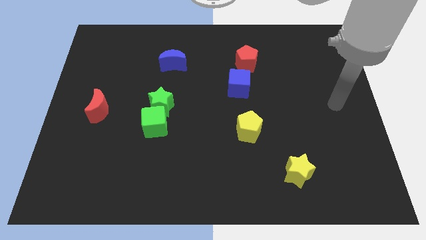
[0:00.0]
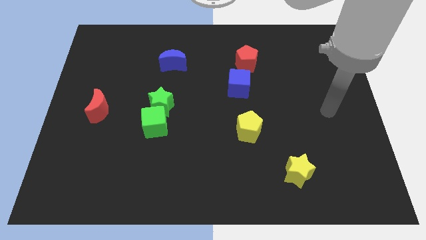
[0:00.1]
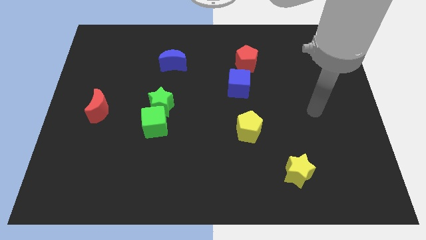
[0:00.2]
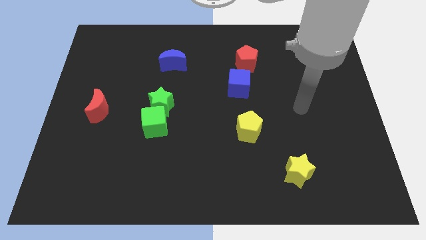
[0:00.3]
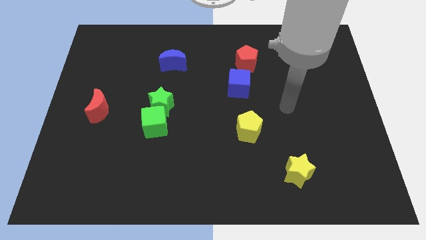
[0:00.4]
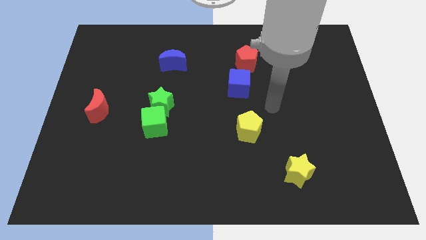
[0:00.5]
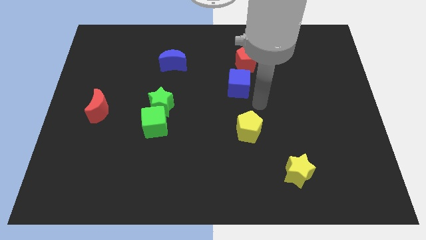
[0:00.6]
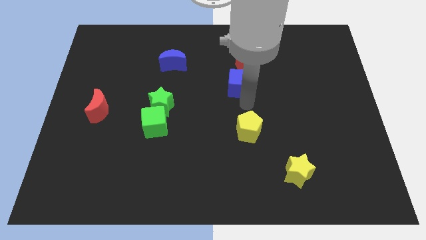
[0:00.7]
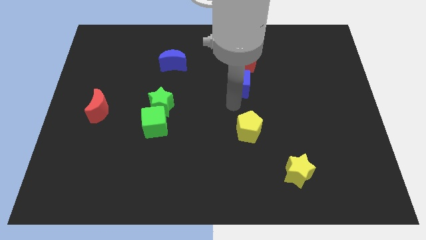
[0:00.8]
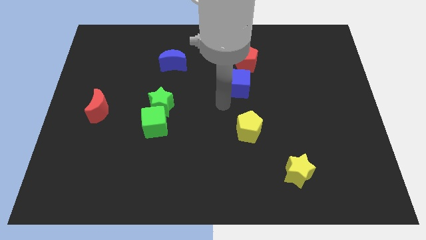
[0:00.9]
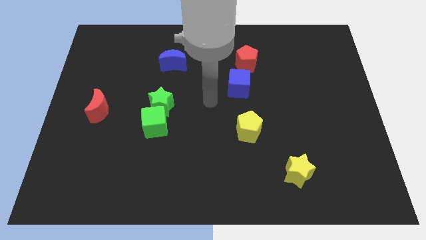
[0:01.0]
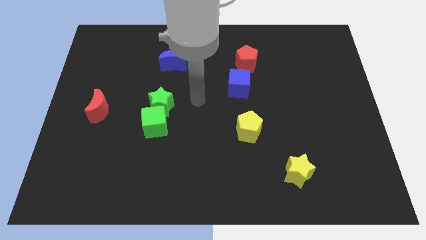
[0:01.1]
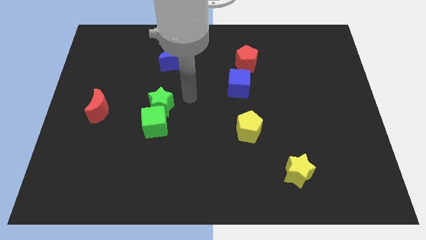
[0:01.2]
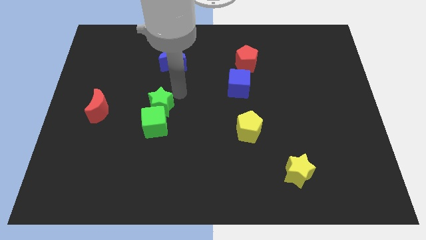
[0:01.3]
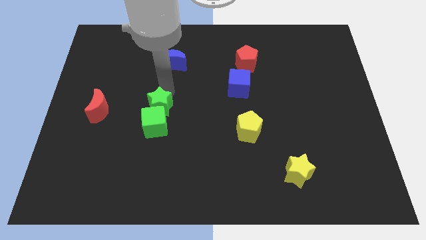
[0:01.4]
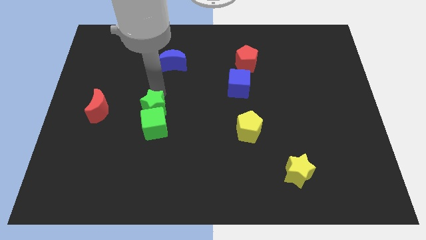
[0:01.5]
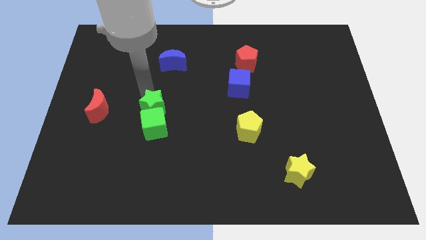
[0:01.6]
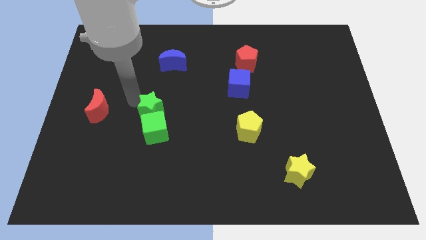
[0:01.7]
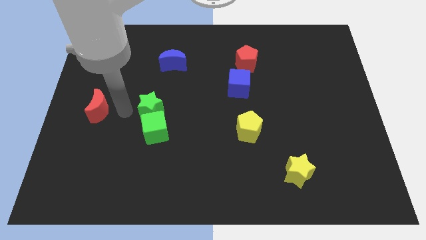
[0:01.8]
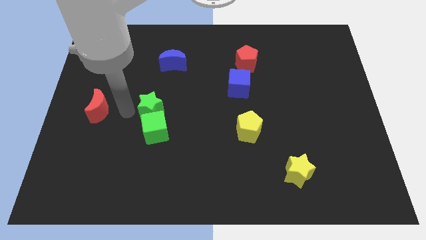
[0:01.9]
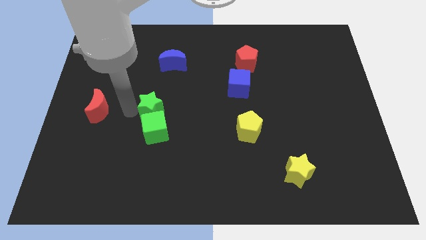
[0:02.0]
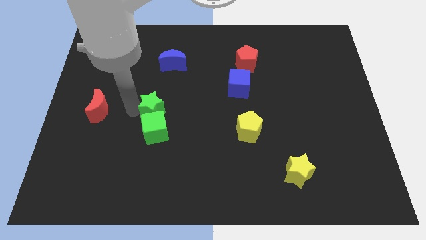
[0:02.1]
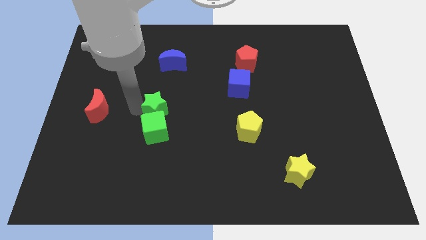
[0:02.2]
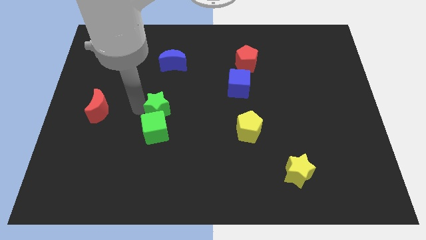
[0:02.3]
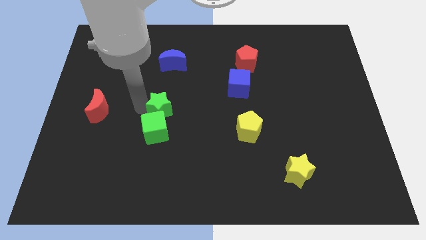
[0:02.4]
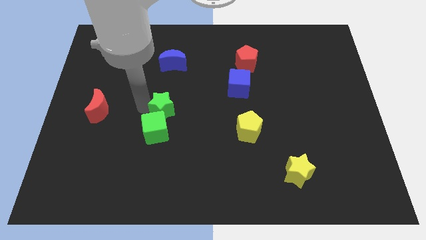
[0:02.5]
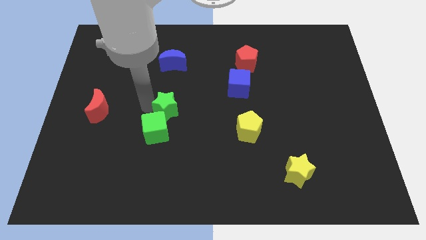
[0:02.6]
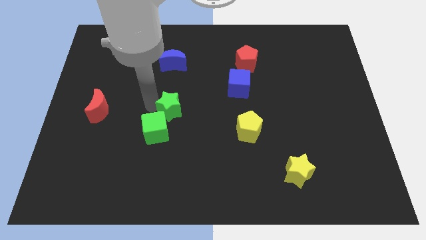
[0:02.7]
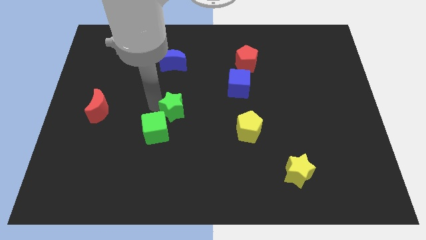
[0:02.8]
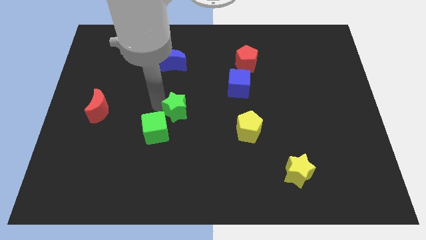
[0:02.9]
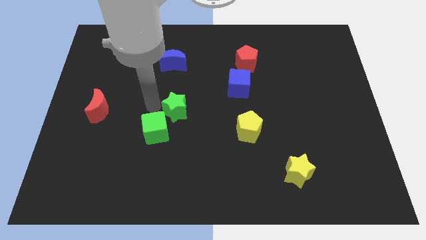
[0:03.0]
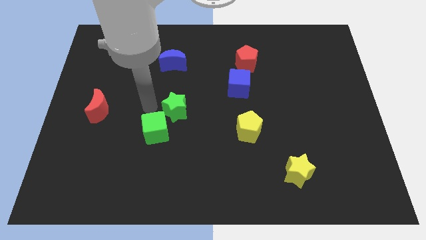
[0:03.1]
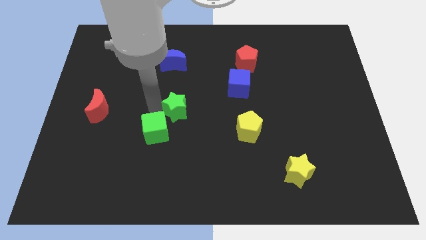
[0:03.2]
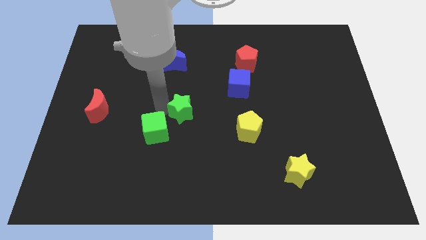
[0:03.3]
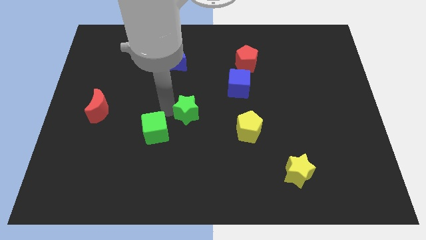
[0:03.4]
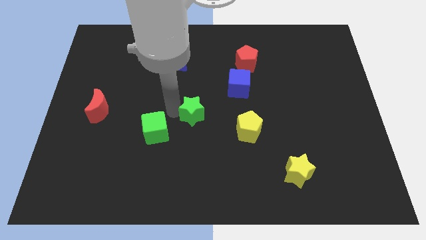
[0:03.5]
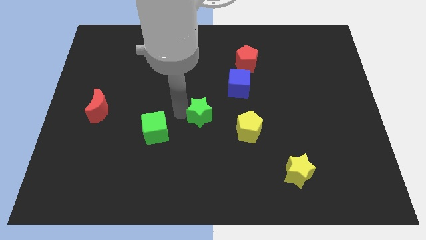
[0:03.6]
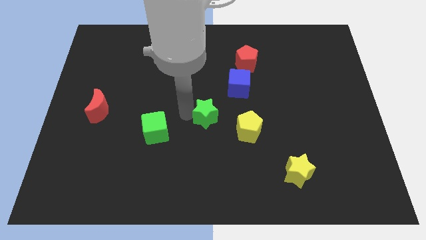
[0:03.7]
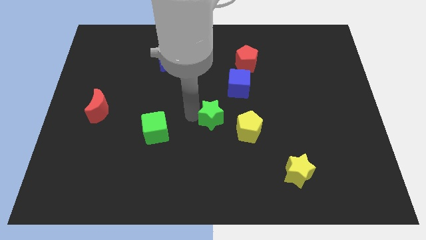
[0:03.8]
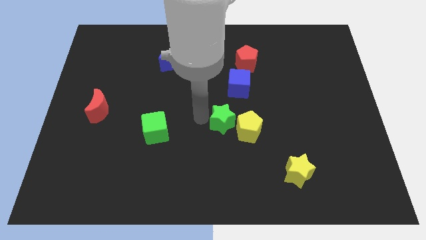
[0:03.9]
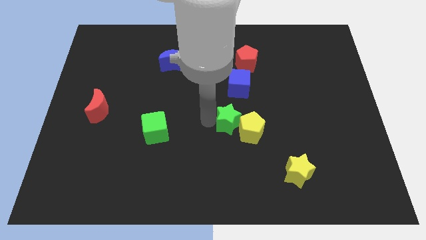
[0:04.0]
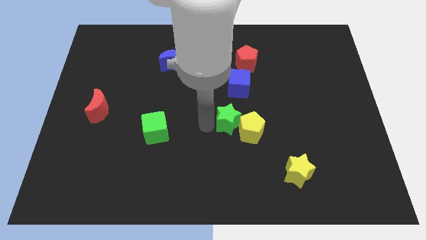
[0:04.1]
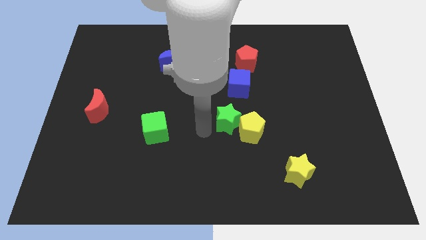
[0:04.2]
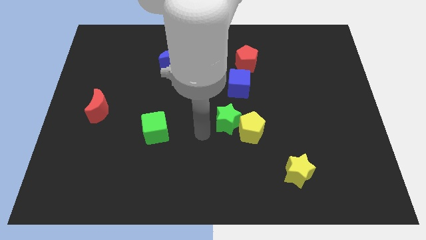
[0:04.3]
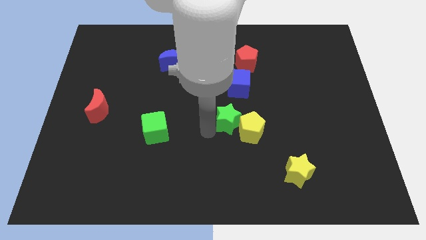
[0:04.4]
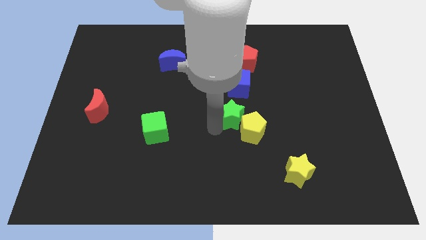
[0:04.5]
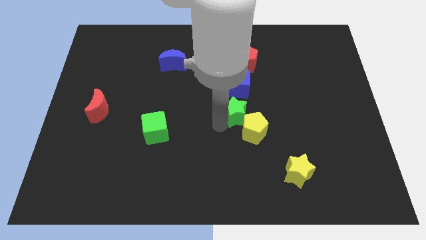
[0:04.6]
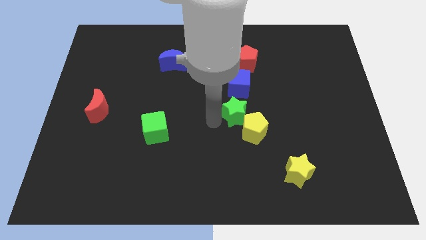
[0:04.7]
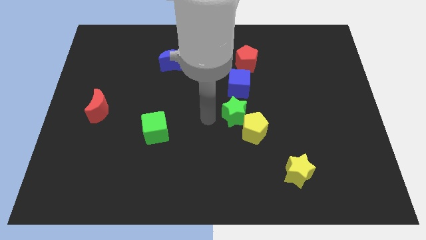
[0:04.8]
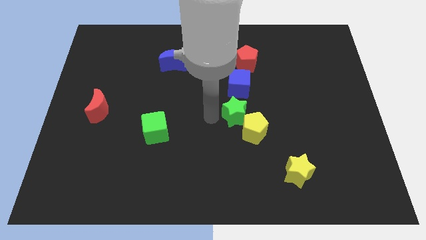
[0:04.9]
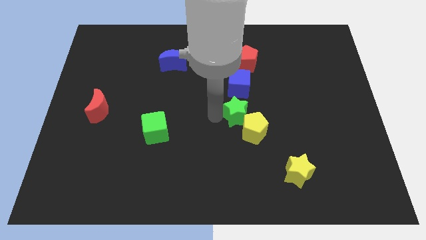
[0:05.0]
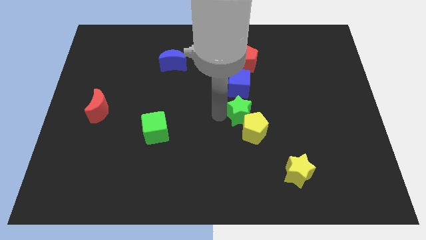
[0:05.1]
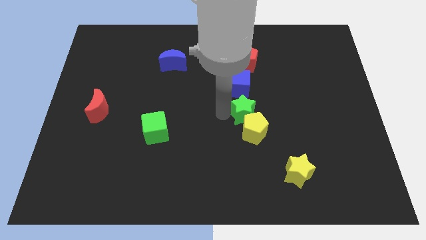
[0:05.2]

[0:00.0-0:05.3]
push the green star to the top right side of the yellow pentagon

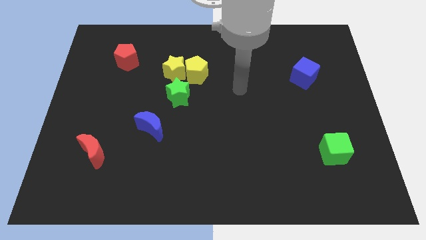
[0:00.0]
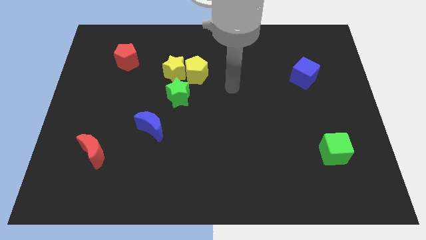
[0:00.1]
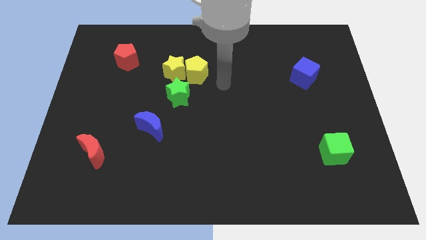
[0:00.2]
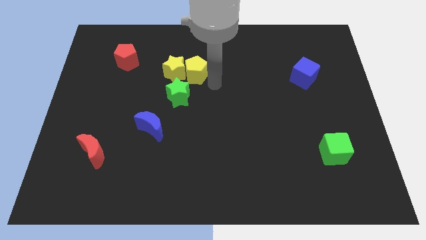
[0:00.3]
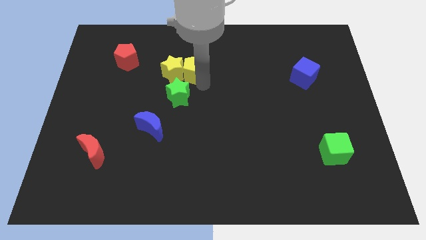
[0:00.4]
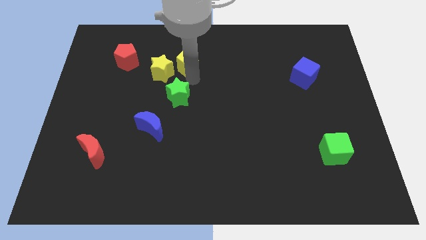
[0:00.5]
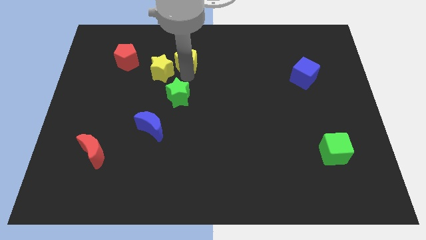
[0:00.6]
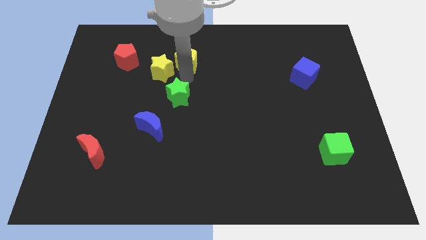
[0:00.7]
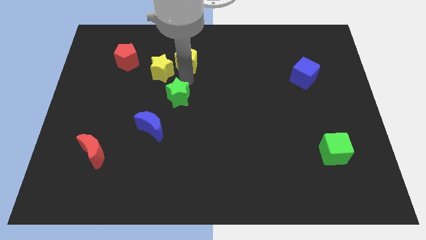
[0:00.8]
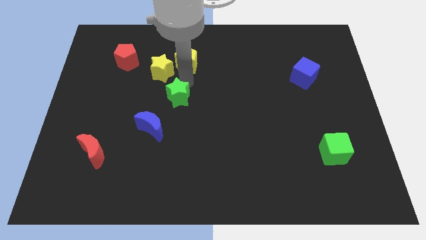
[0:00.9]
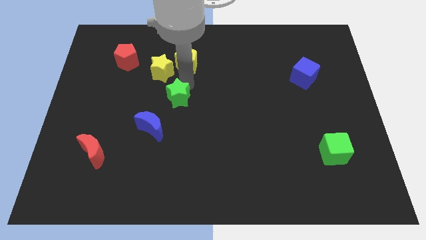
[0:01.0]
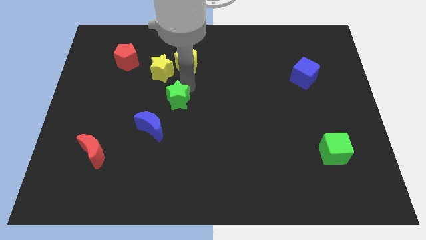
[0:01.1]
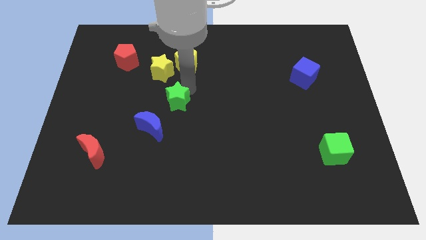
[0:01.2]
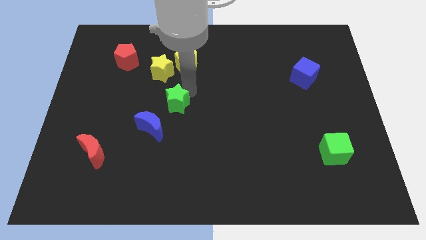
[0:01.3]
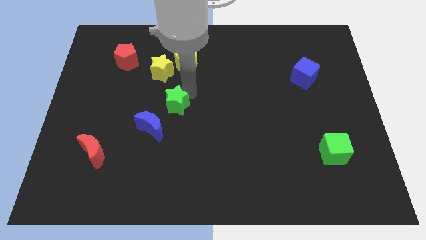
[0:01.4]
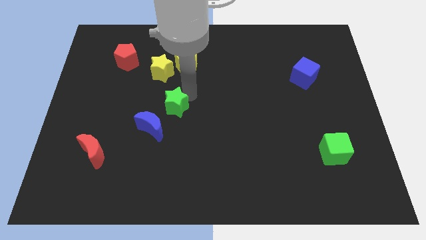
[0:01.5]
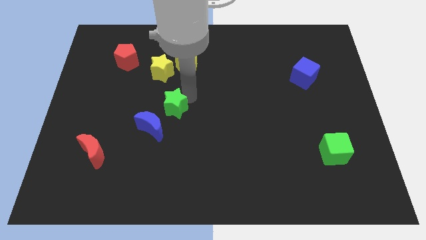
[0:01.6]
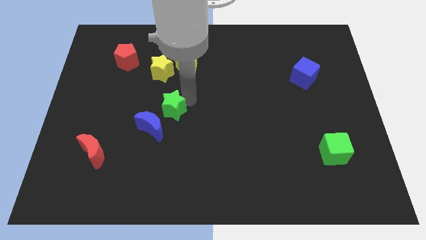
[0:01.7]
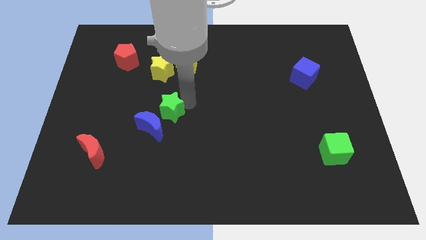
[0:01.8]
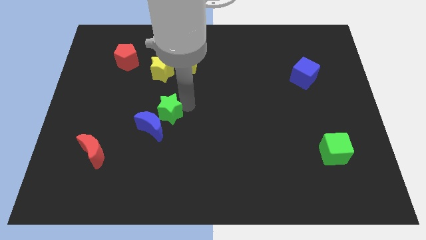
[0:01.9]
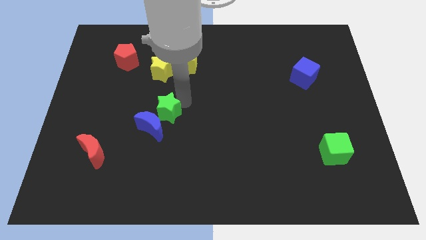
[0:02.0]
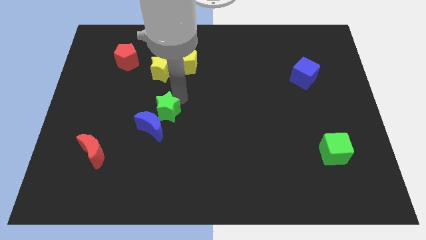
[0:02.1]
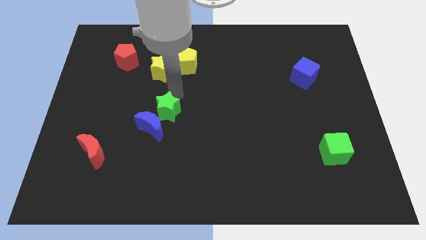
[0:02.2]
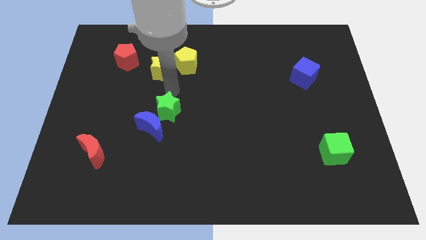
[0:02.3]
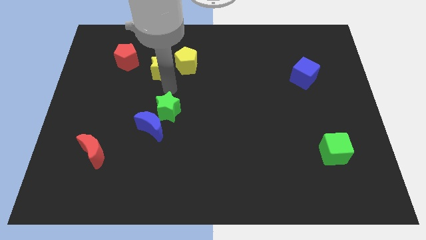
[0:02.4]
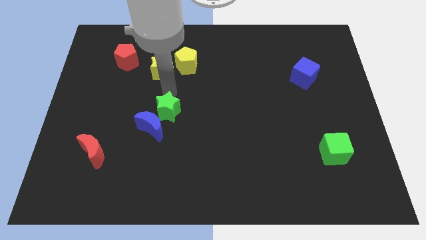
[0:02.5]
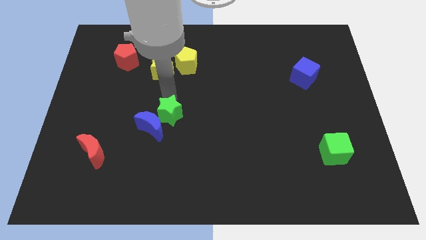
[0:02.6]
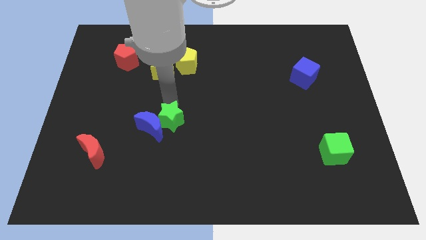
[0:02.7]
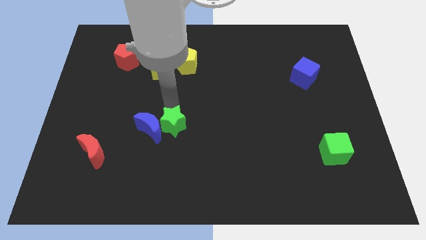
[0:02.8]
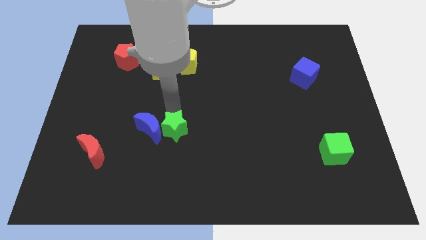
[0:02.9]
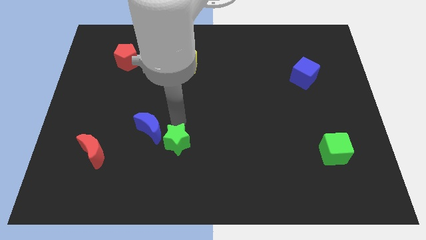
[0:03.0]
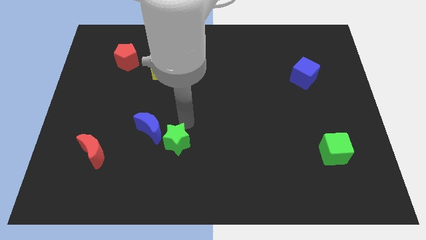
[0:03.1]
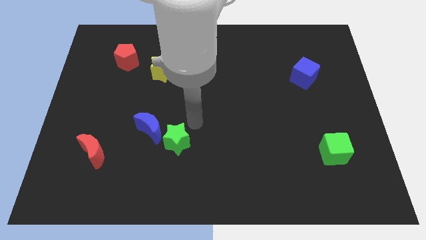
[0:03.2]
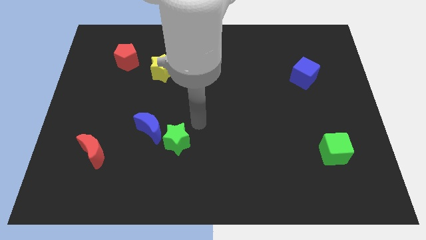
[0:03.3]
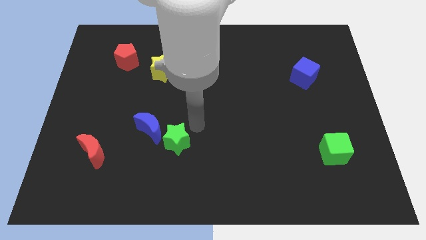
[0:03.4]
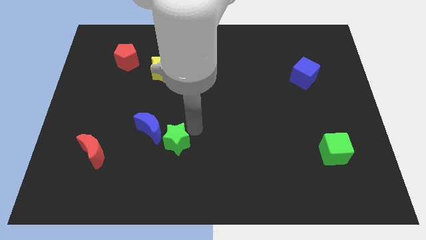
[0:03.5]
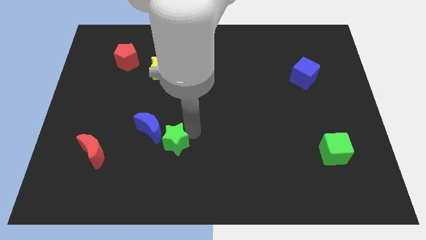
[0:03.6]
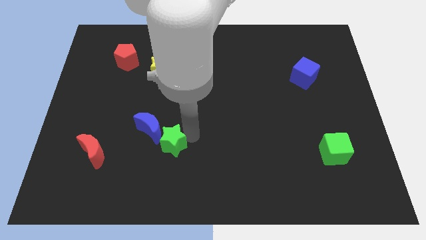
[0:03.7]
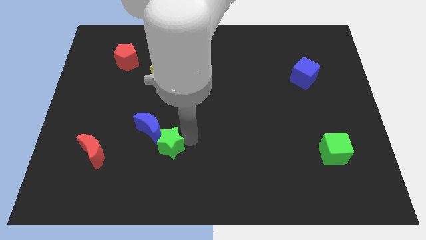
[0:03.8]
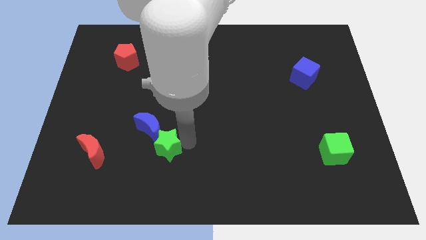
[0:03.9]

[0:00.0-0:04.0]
move the green star to the bottom of the blue moon
